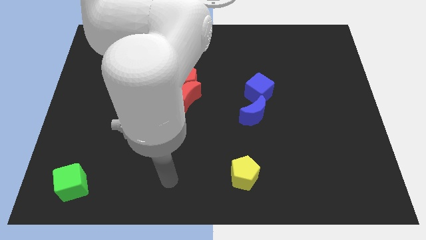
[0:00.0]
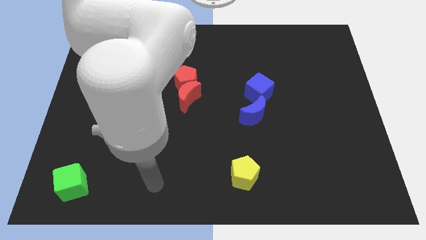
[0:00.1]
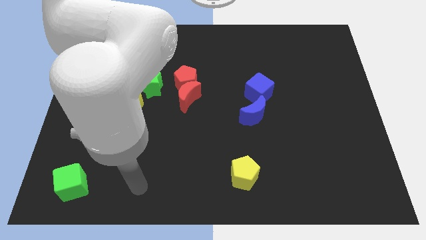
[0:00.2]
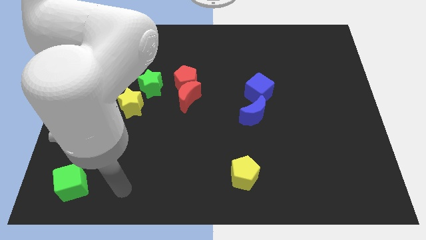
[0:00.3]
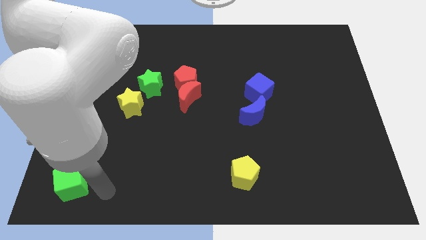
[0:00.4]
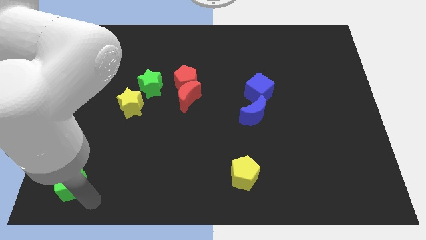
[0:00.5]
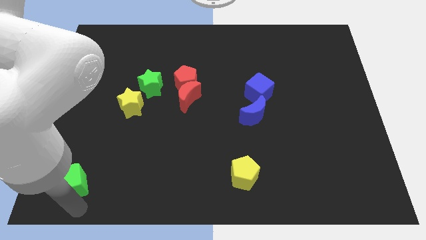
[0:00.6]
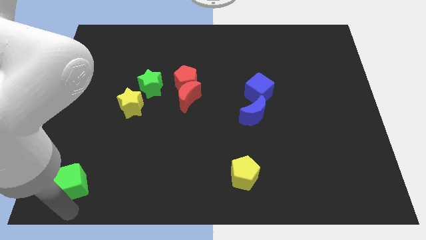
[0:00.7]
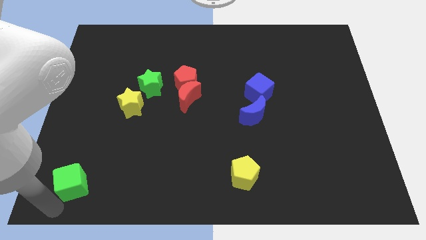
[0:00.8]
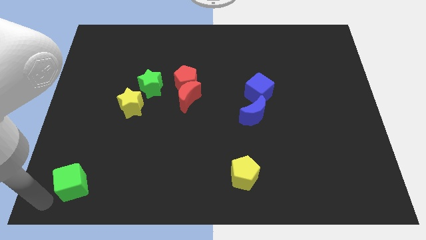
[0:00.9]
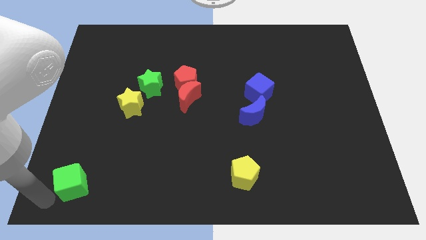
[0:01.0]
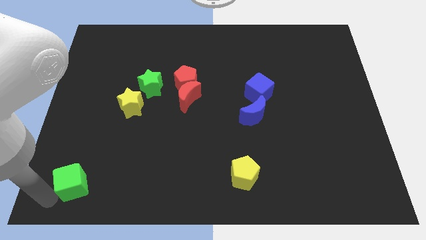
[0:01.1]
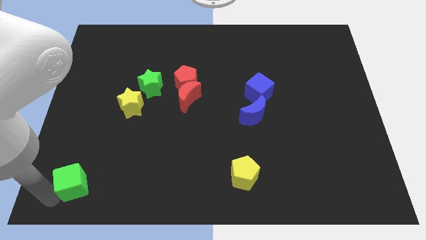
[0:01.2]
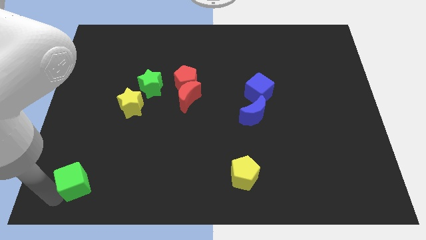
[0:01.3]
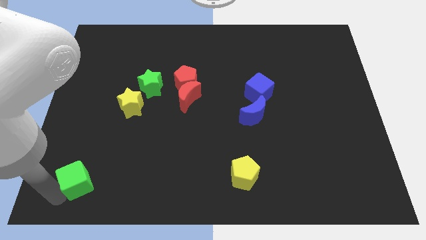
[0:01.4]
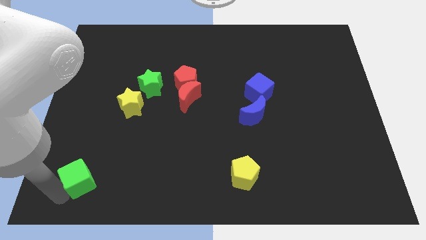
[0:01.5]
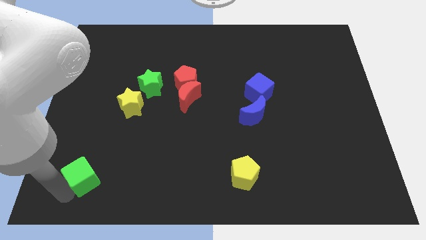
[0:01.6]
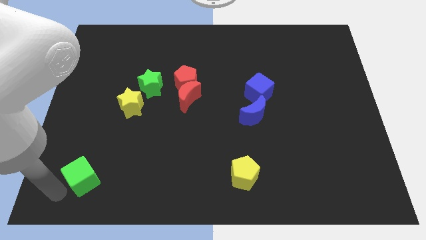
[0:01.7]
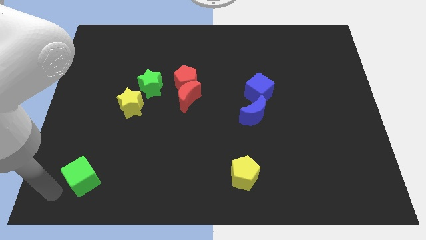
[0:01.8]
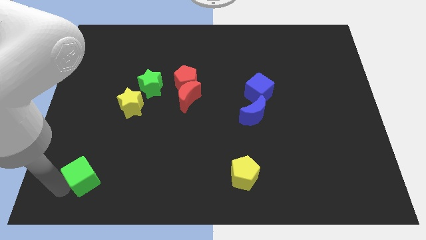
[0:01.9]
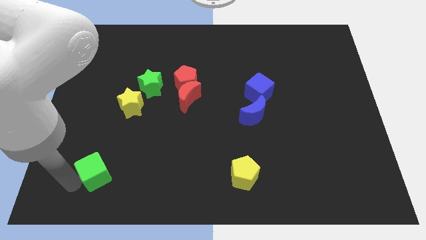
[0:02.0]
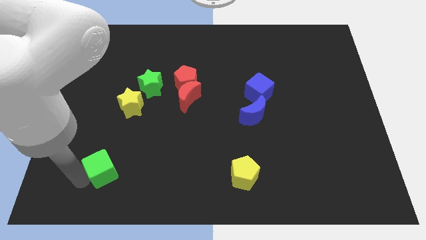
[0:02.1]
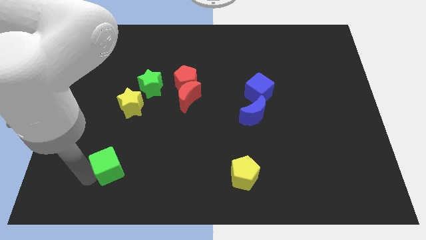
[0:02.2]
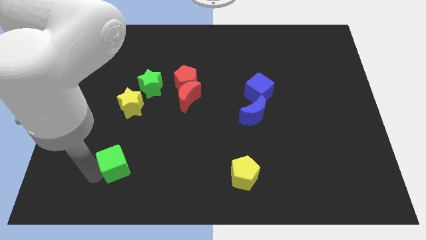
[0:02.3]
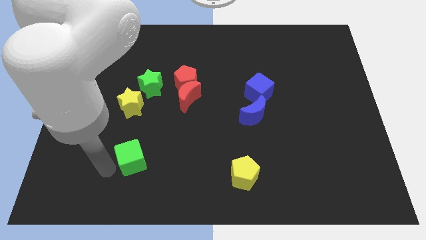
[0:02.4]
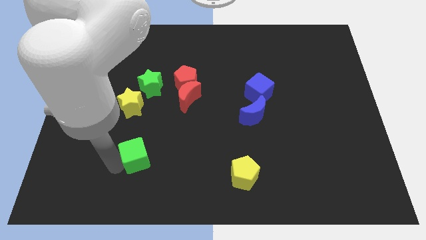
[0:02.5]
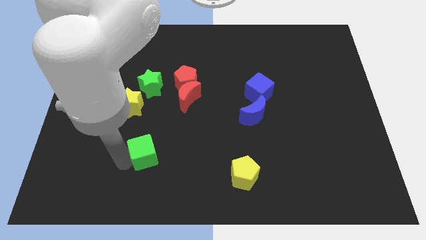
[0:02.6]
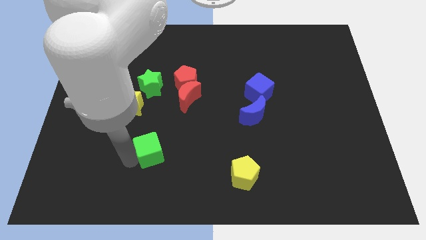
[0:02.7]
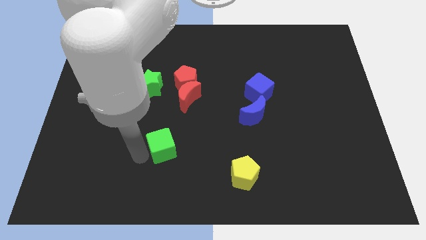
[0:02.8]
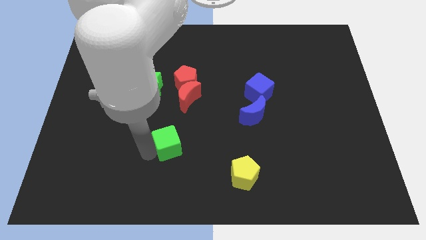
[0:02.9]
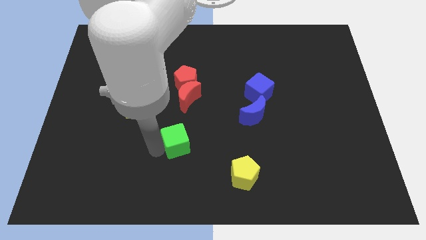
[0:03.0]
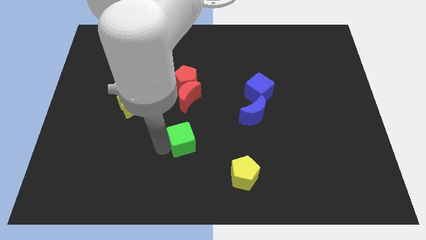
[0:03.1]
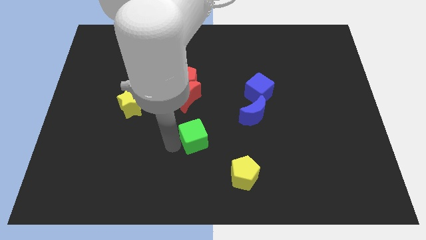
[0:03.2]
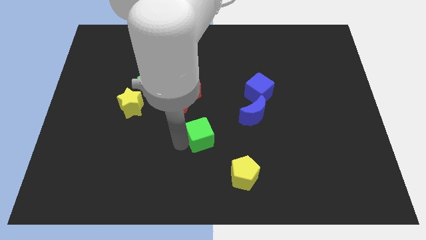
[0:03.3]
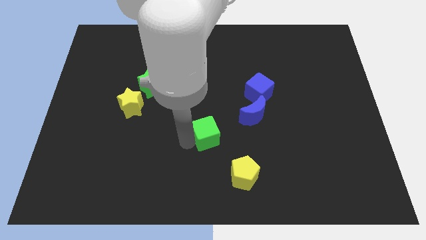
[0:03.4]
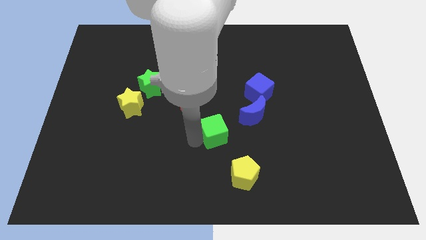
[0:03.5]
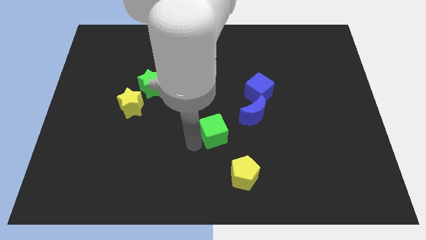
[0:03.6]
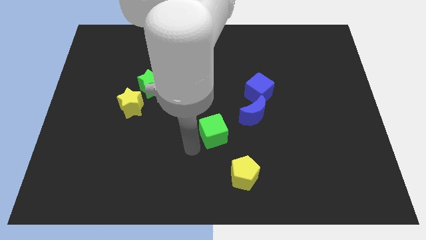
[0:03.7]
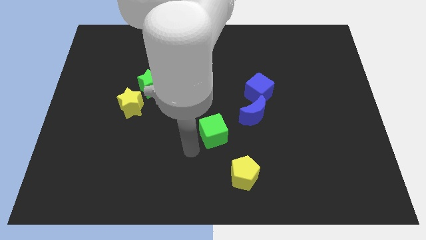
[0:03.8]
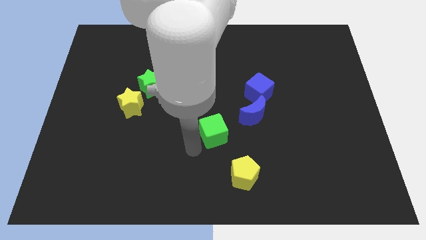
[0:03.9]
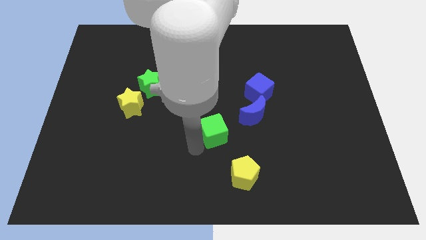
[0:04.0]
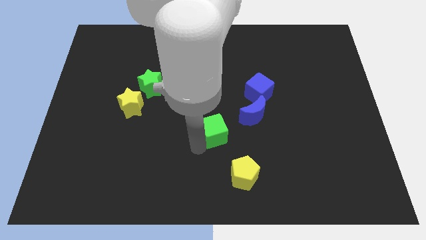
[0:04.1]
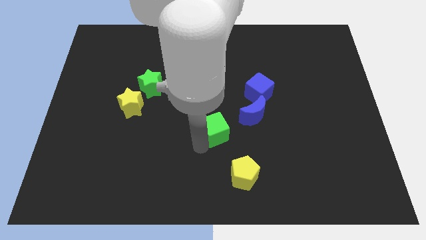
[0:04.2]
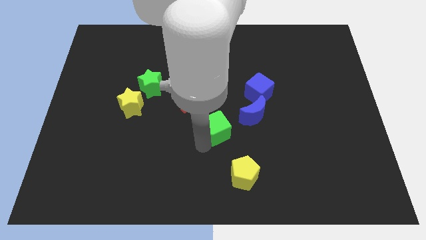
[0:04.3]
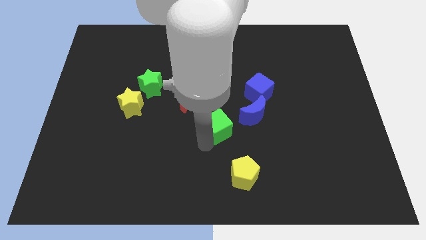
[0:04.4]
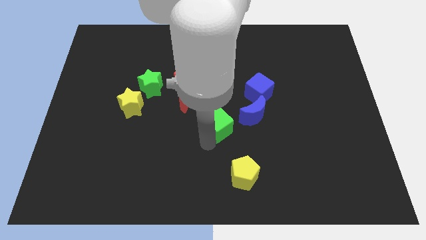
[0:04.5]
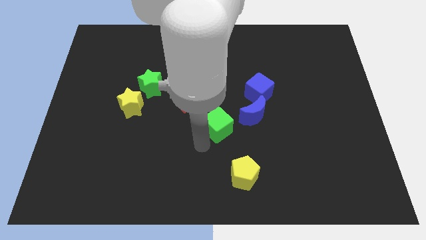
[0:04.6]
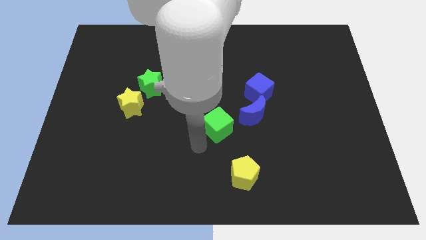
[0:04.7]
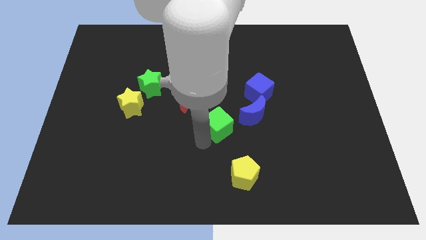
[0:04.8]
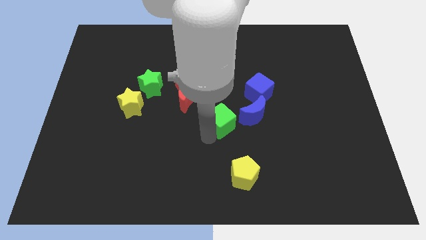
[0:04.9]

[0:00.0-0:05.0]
push the green cube to the bottom left of the blue cube

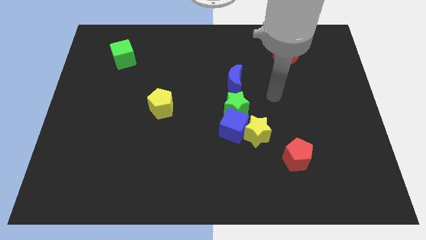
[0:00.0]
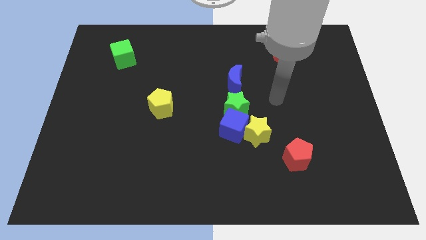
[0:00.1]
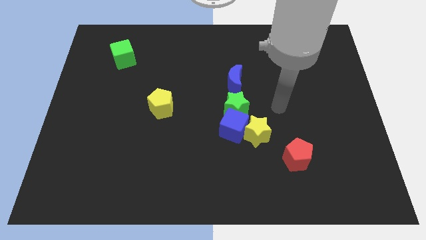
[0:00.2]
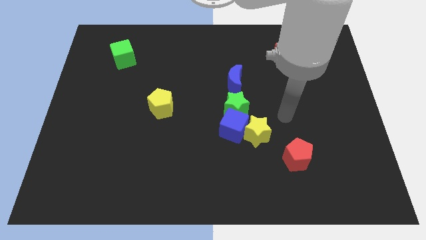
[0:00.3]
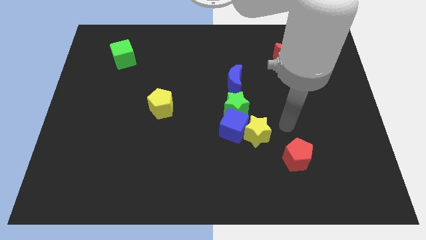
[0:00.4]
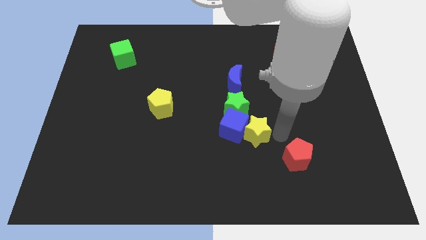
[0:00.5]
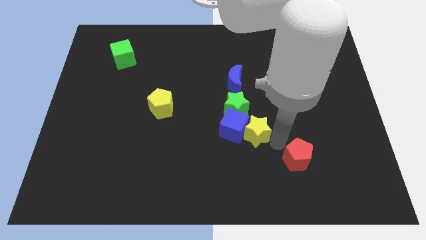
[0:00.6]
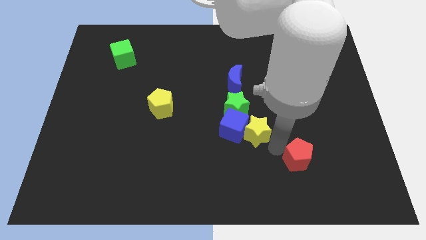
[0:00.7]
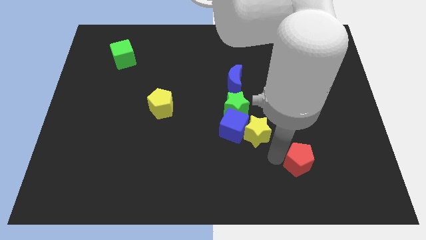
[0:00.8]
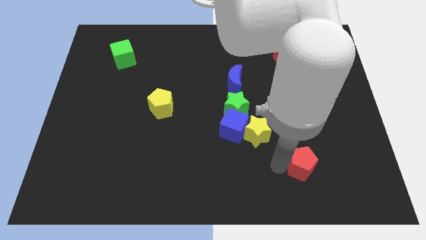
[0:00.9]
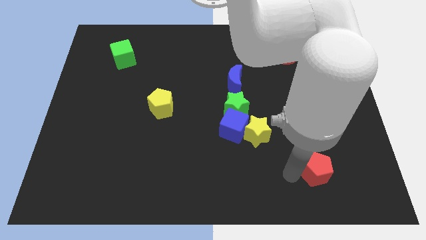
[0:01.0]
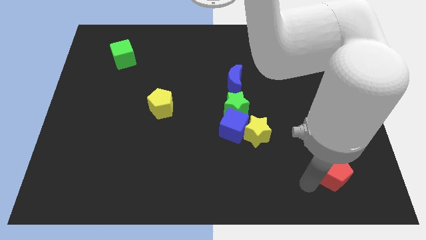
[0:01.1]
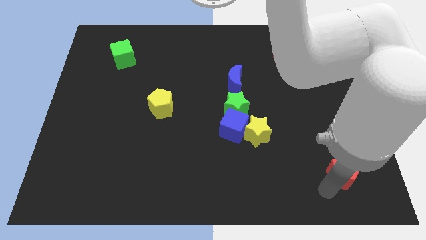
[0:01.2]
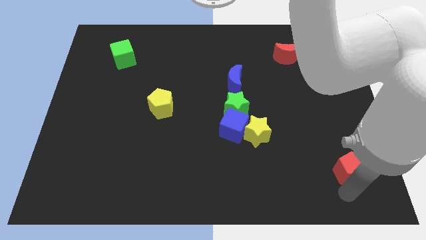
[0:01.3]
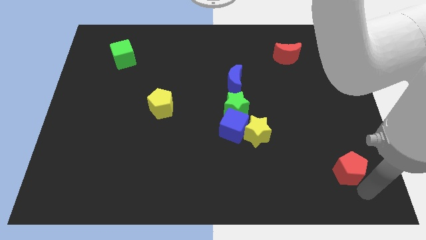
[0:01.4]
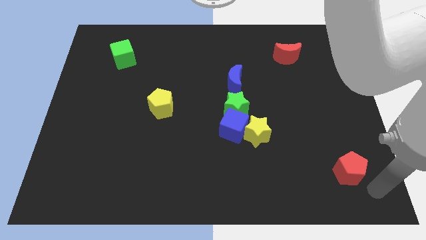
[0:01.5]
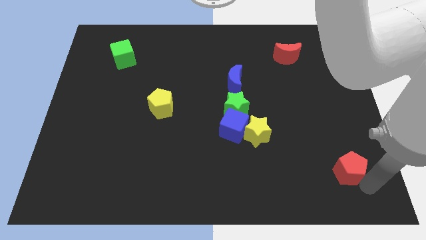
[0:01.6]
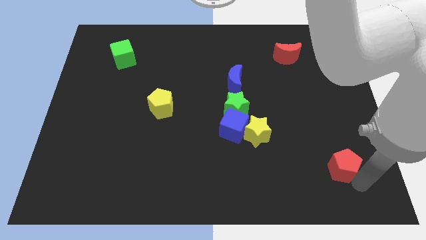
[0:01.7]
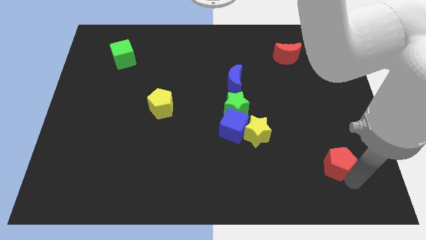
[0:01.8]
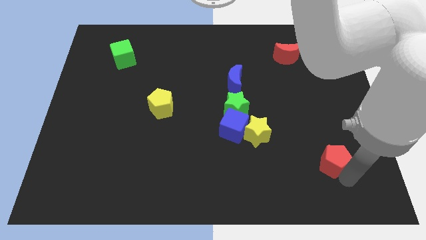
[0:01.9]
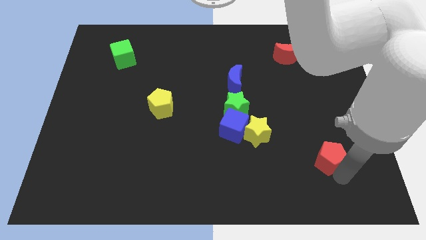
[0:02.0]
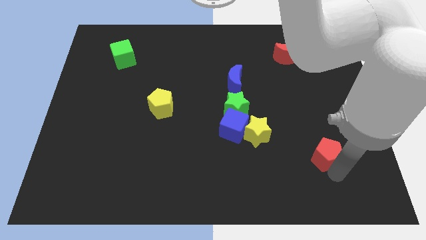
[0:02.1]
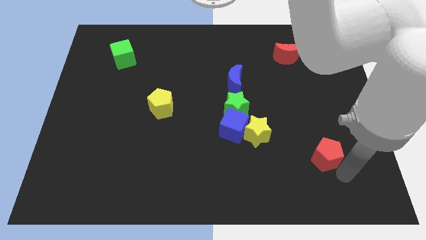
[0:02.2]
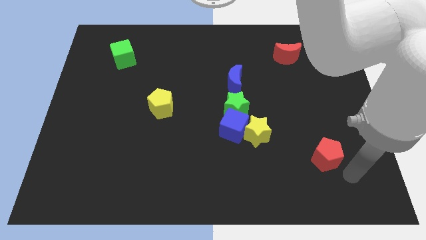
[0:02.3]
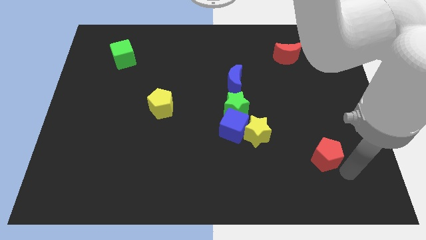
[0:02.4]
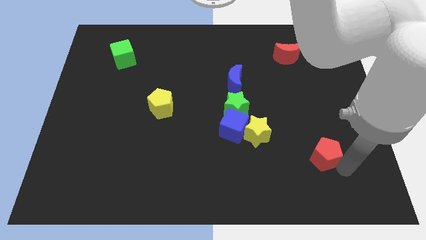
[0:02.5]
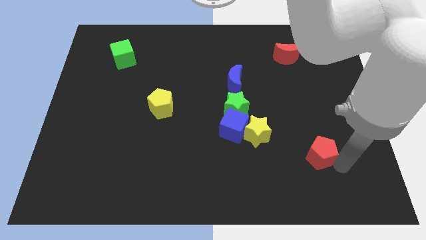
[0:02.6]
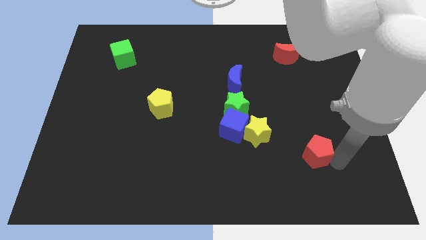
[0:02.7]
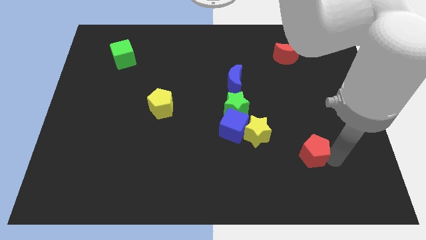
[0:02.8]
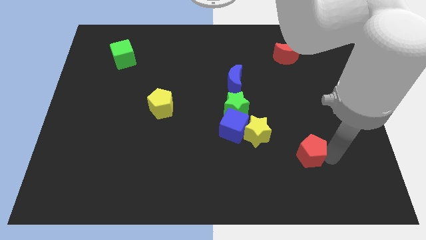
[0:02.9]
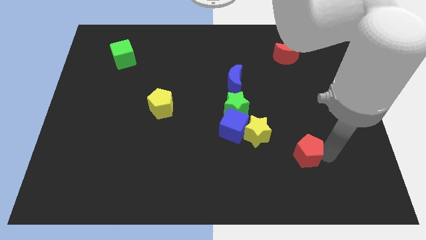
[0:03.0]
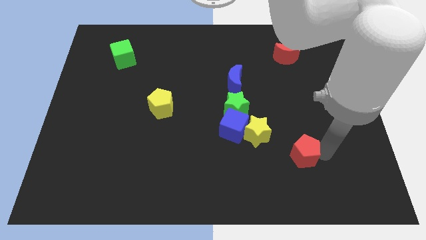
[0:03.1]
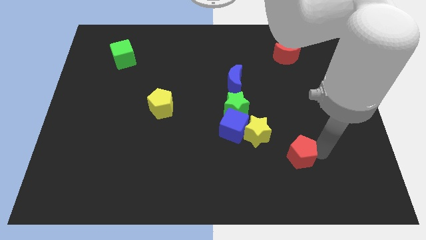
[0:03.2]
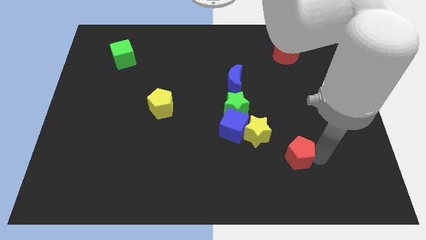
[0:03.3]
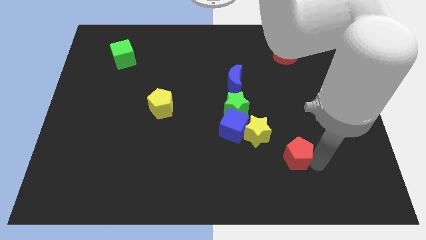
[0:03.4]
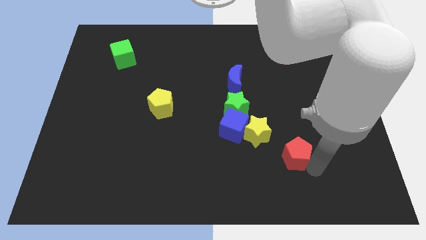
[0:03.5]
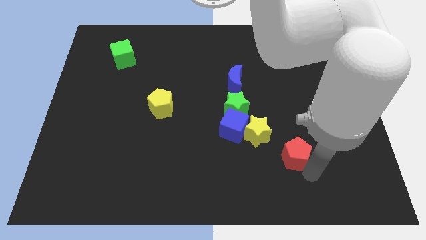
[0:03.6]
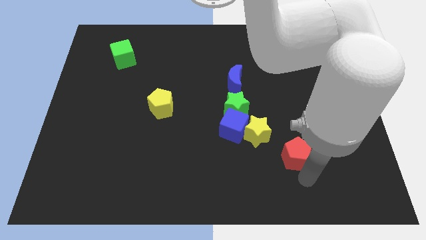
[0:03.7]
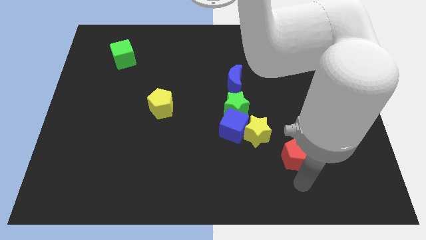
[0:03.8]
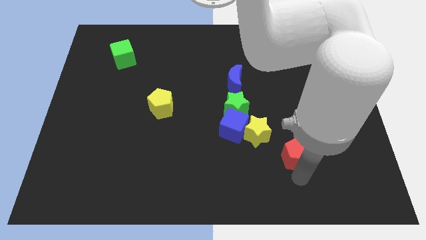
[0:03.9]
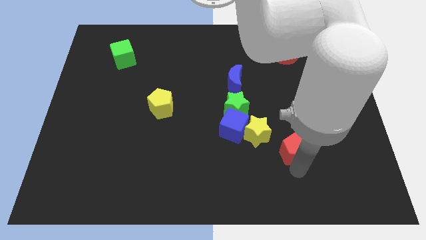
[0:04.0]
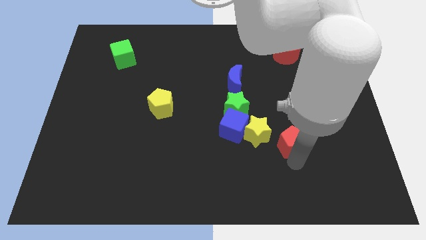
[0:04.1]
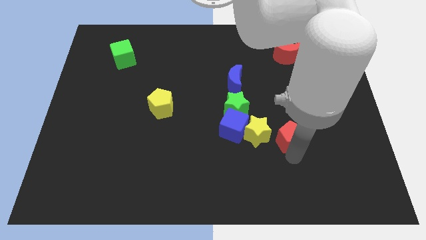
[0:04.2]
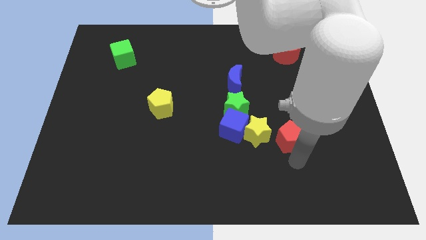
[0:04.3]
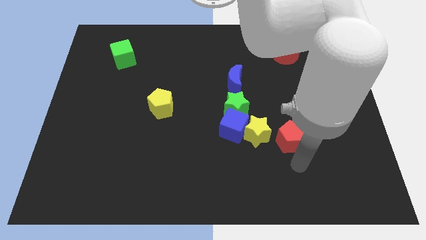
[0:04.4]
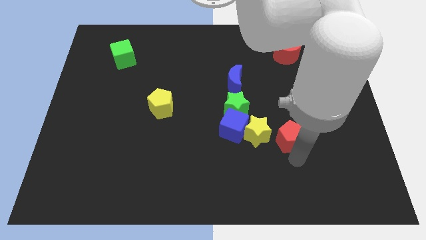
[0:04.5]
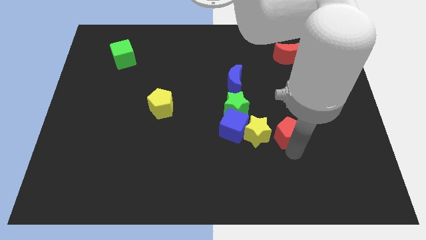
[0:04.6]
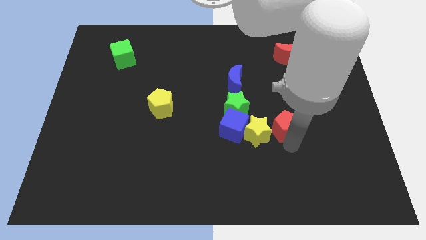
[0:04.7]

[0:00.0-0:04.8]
slide the red pentagon to the top right side of the yellow star
